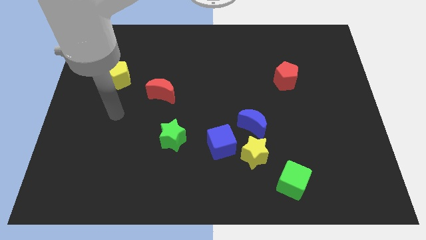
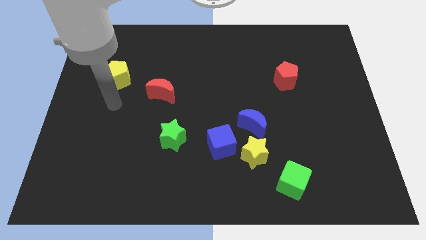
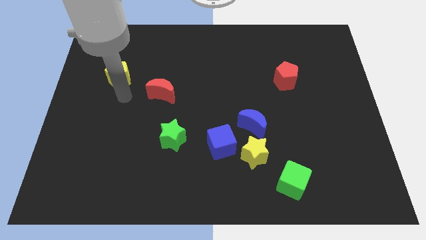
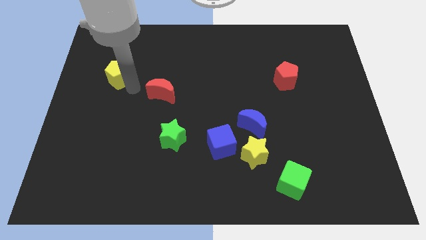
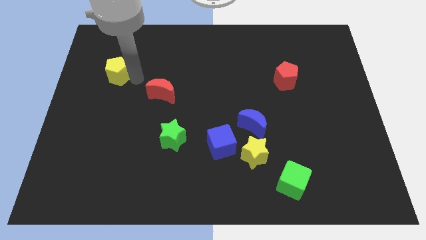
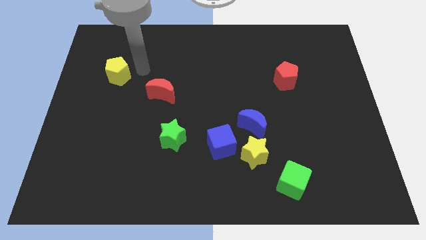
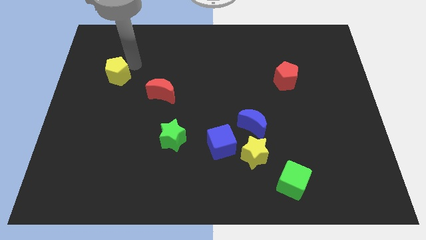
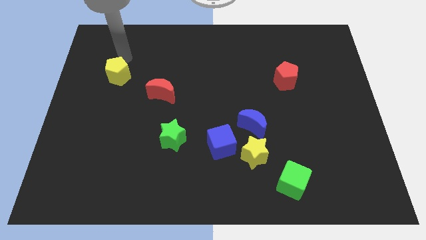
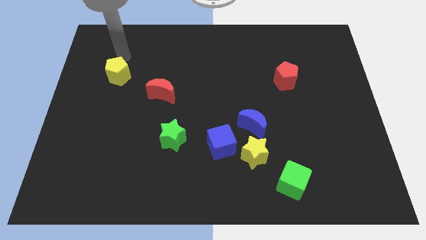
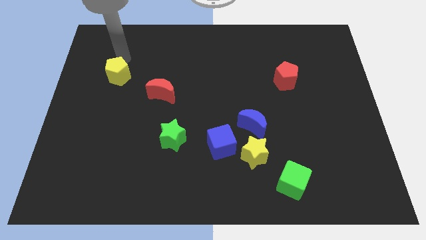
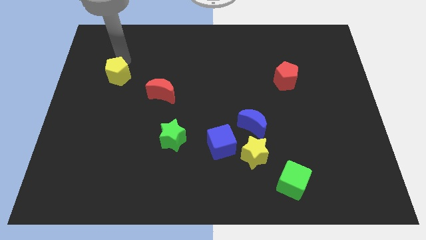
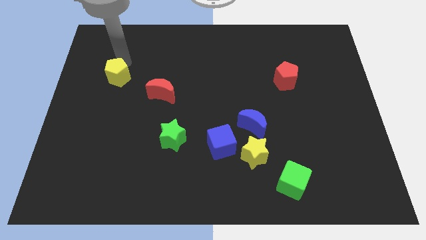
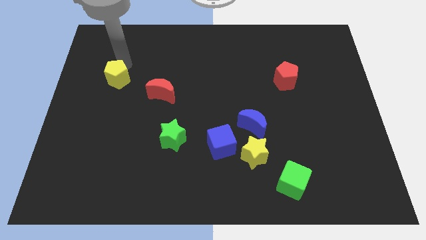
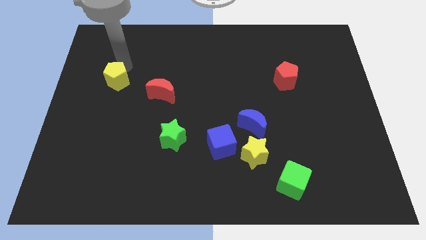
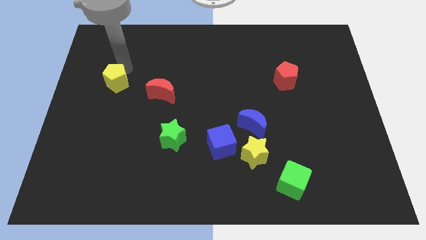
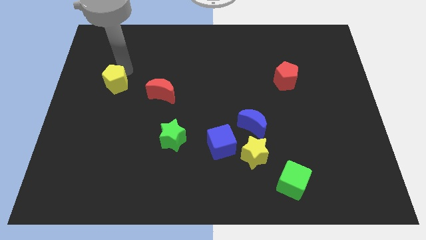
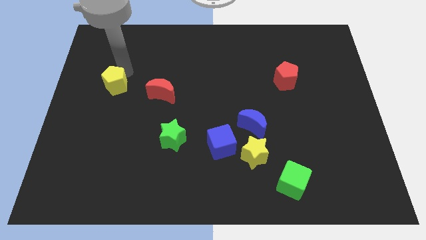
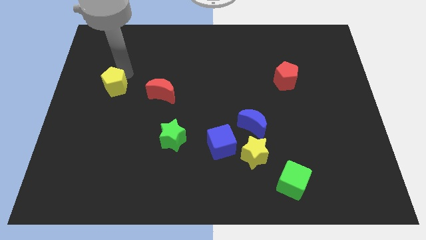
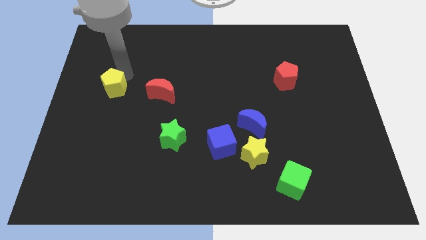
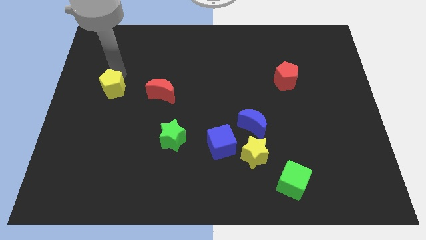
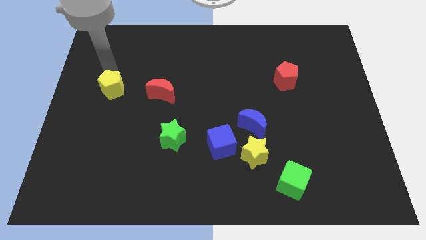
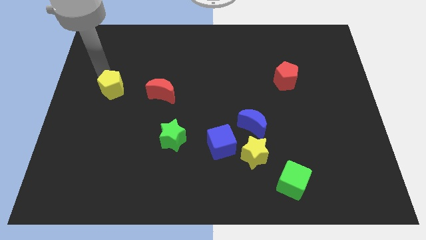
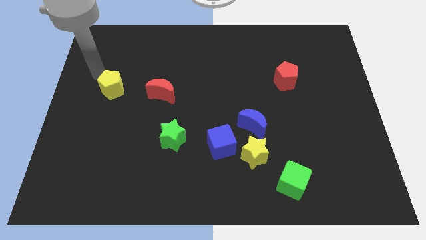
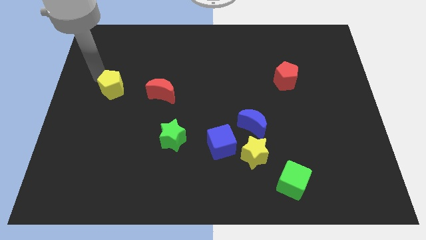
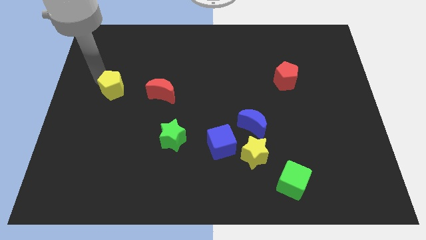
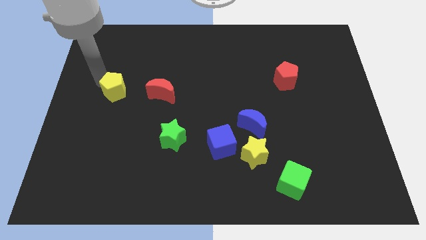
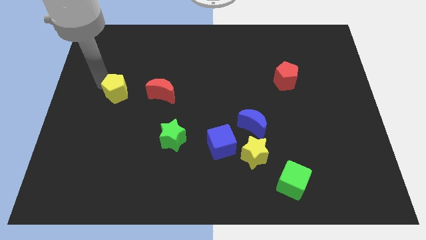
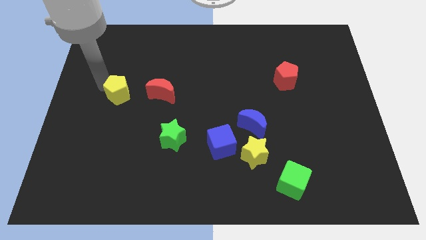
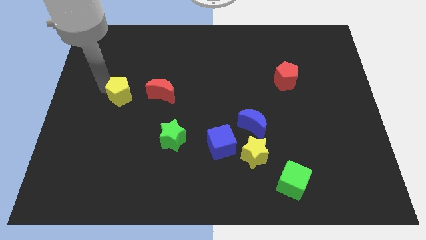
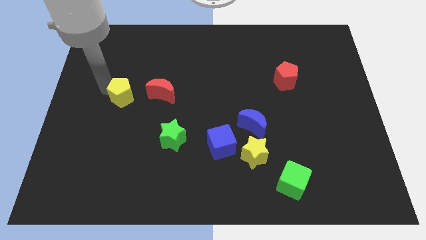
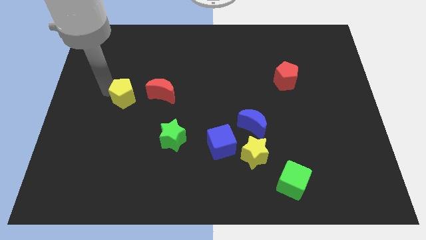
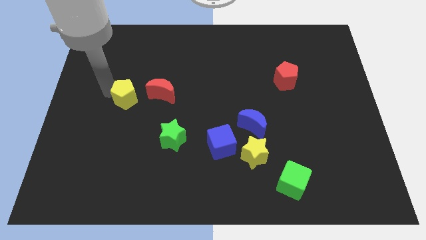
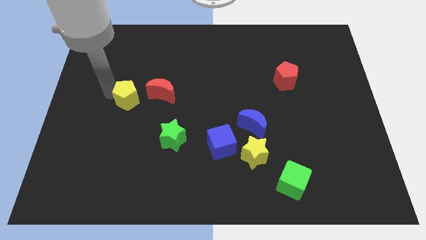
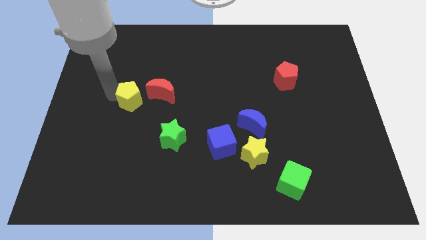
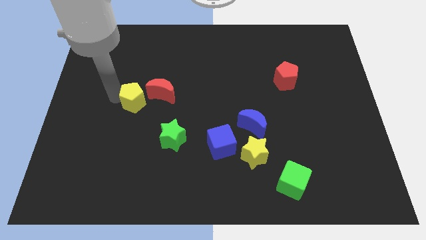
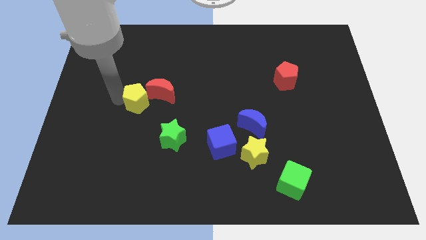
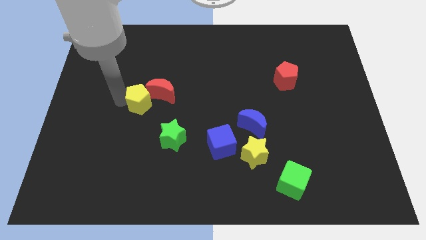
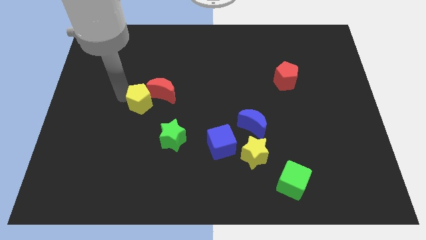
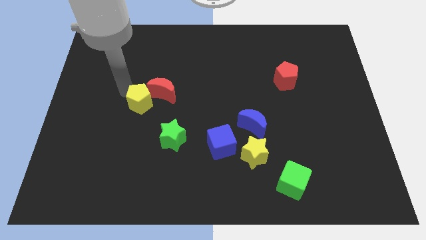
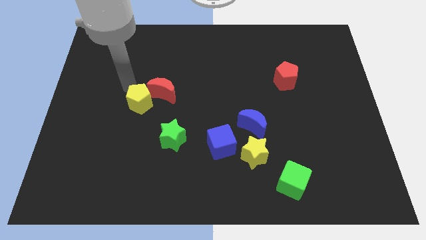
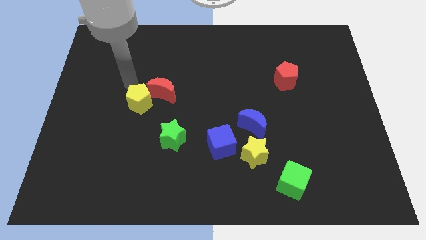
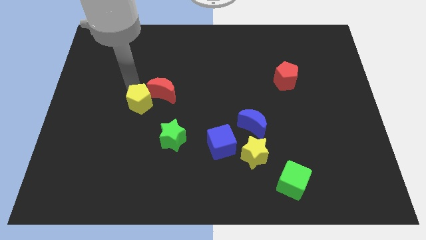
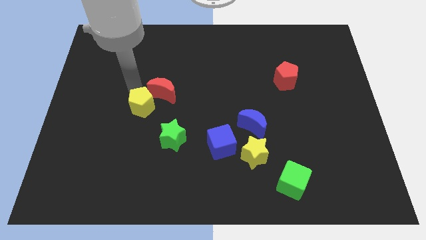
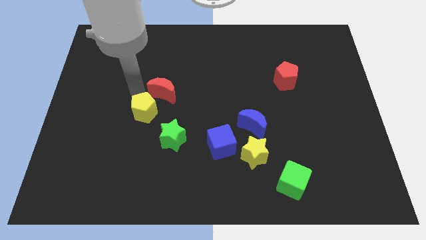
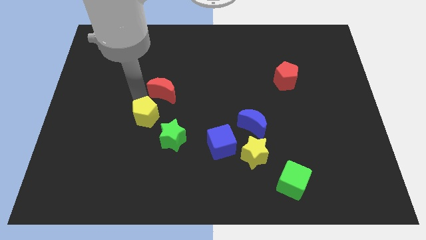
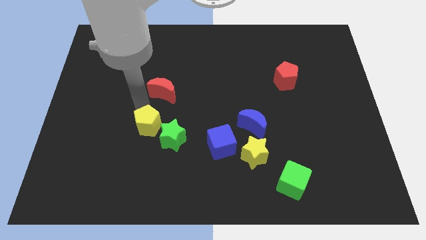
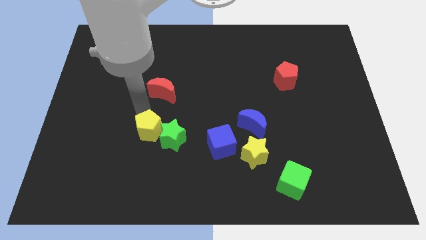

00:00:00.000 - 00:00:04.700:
slide the yellow pentagon towards the green star
